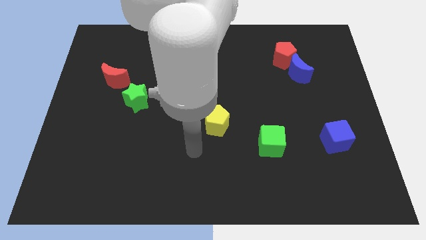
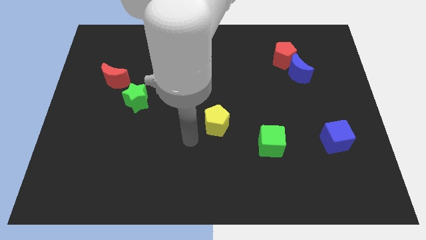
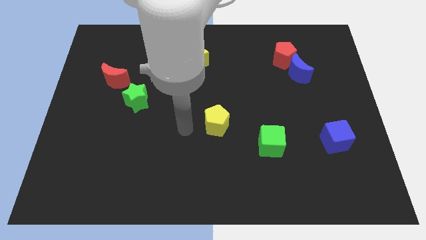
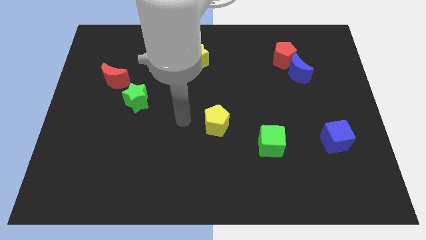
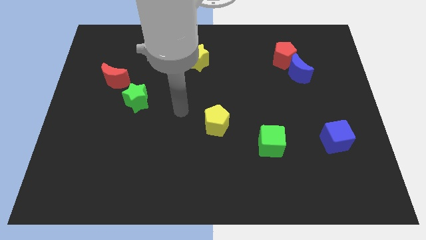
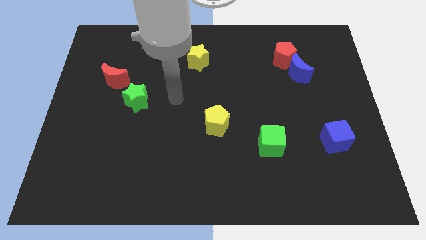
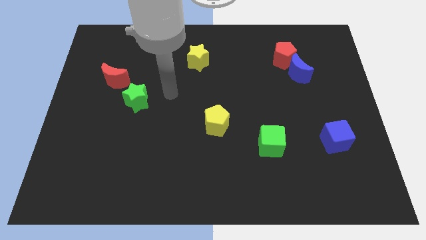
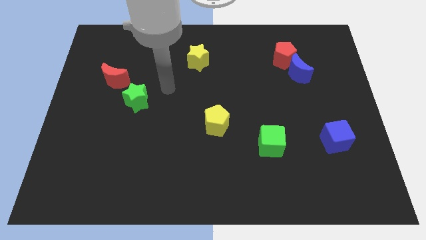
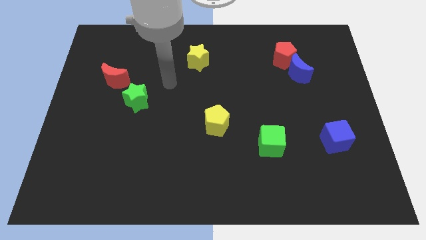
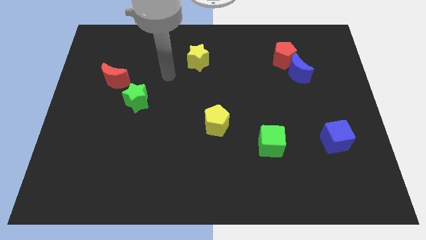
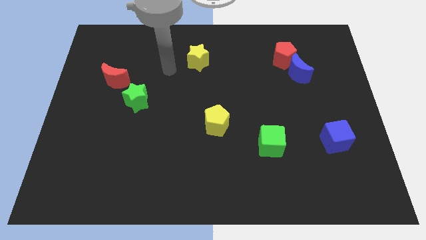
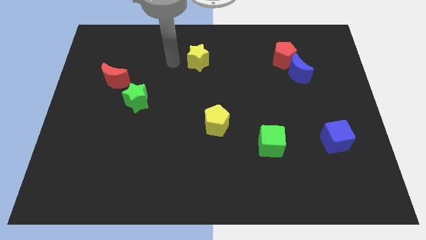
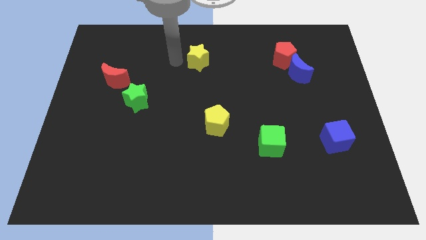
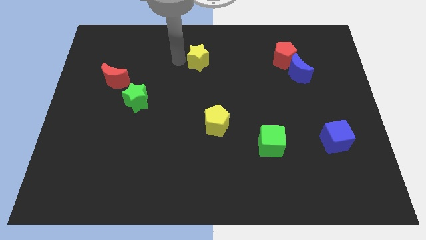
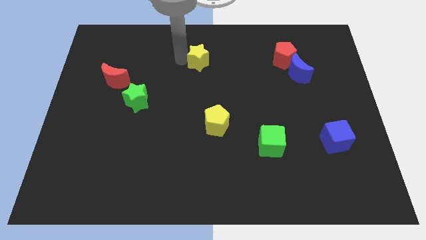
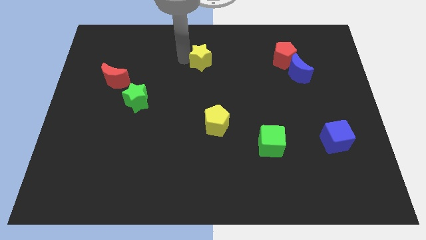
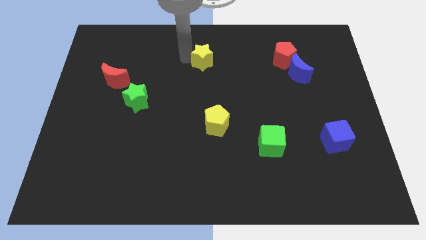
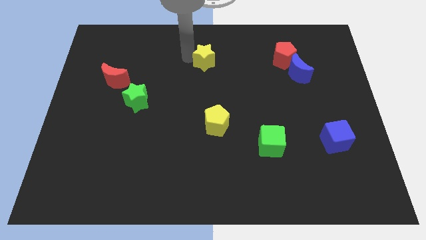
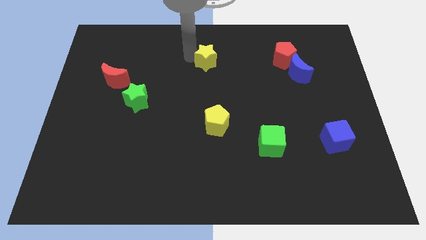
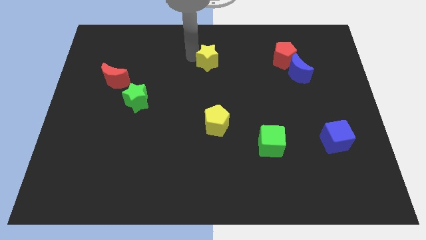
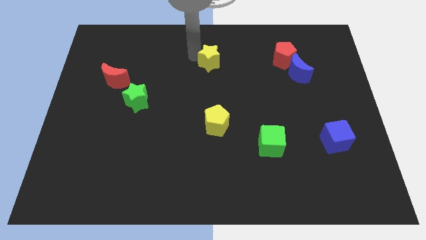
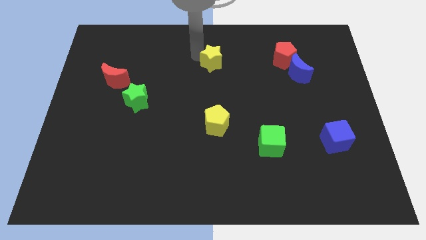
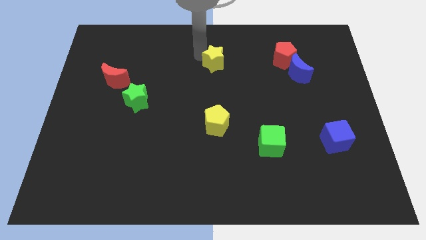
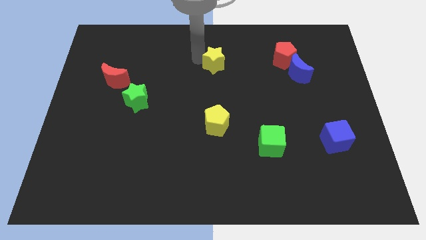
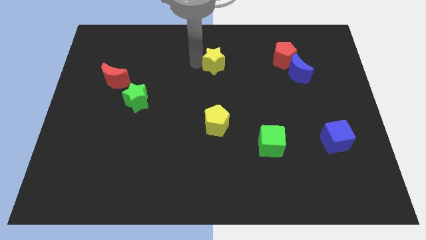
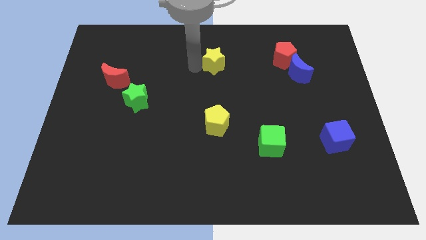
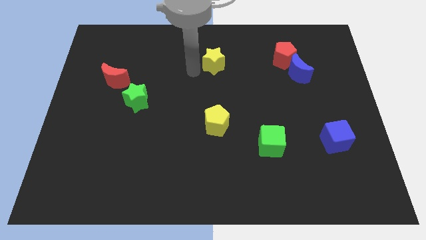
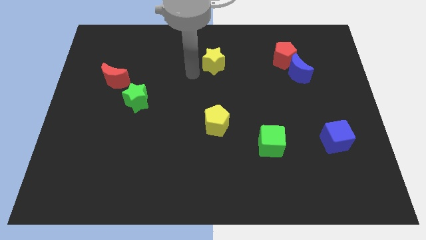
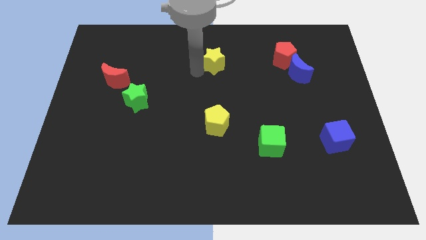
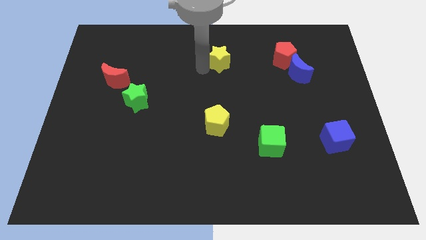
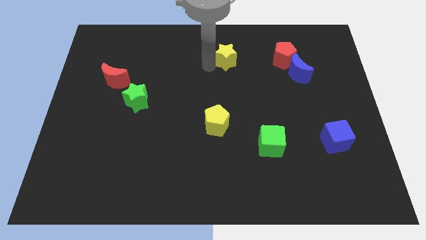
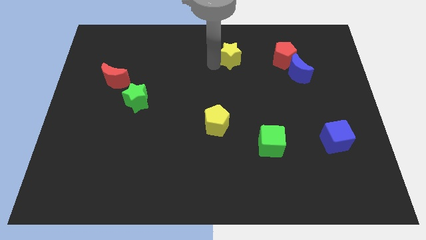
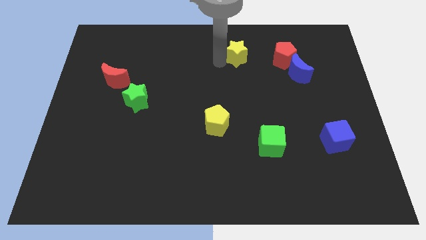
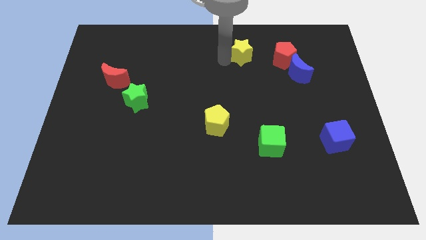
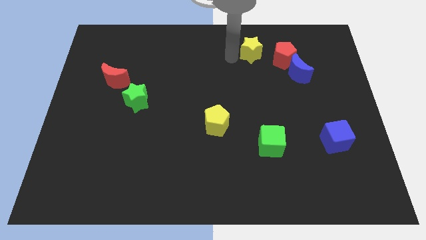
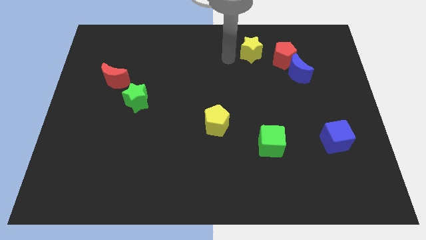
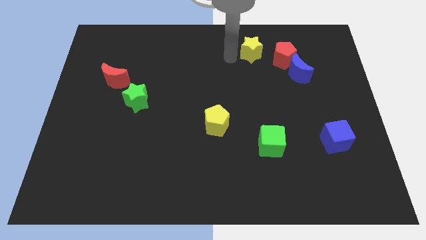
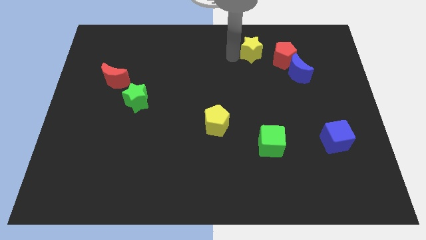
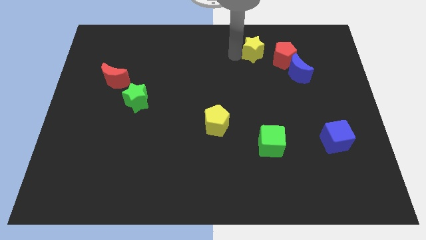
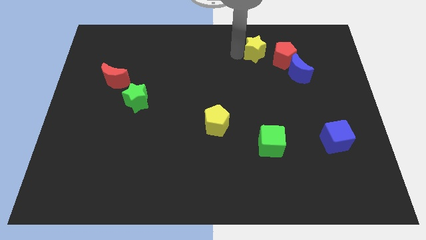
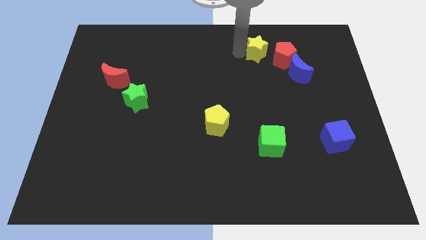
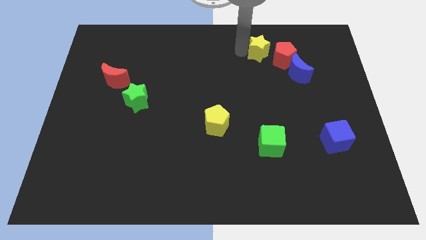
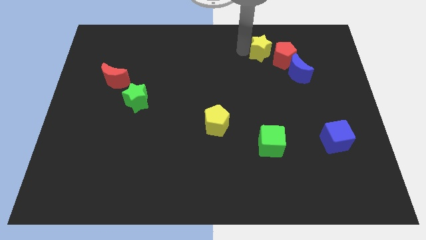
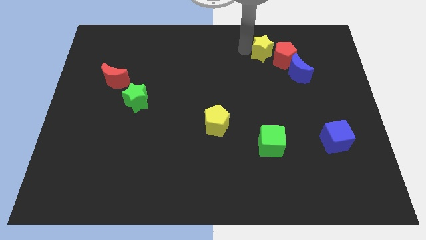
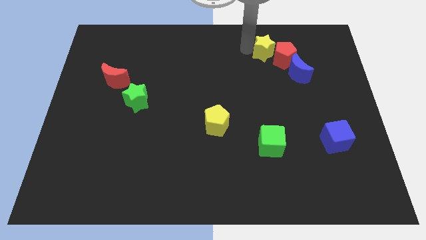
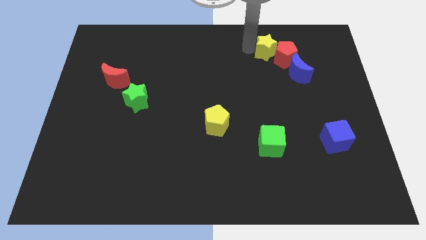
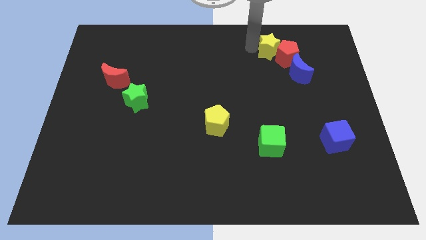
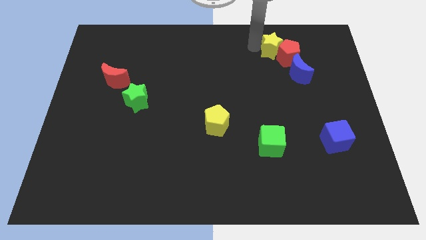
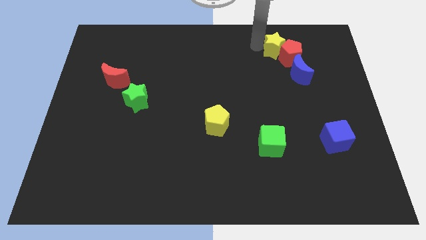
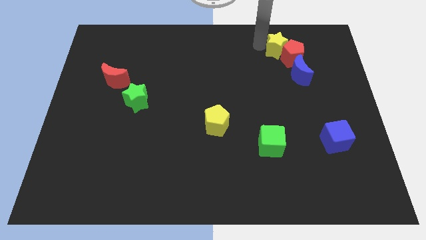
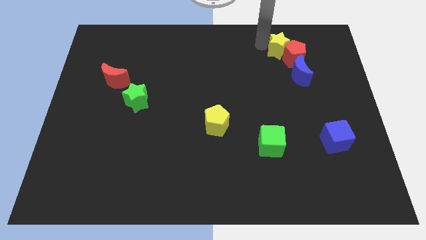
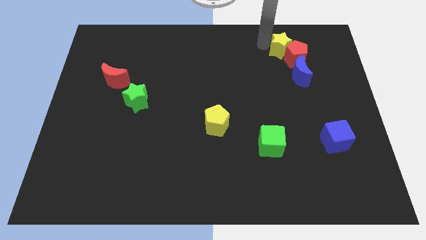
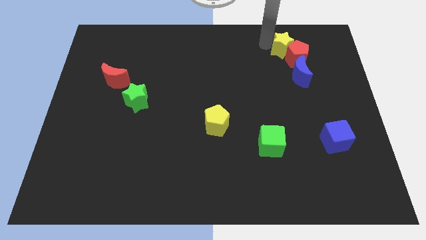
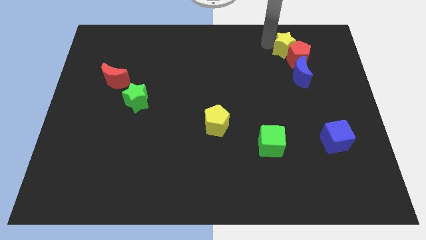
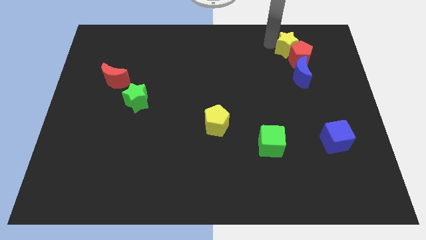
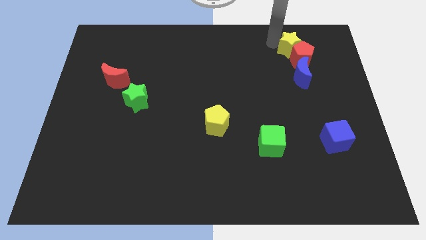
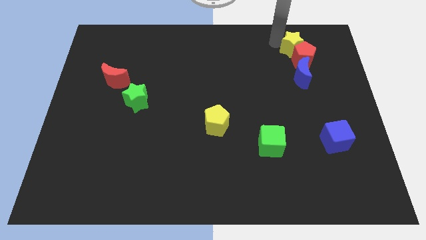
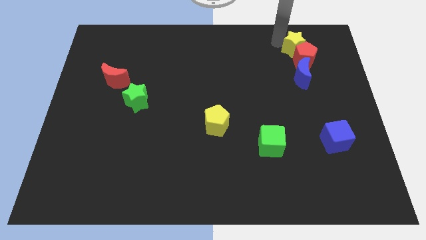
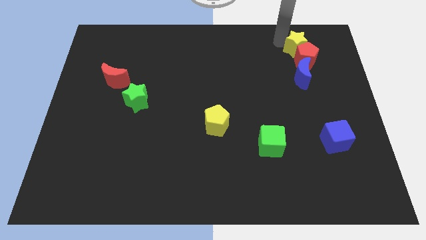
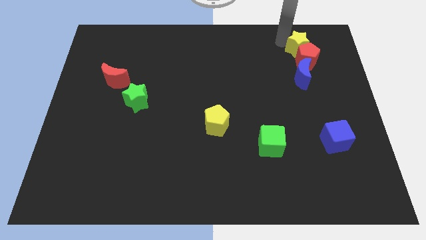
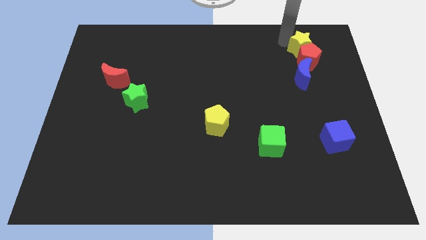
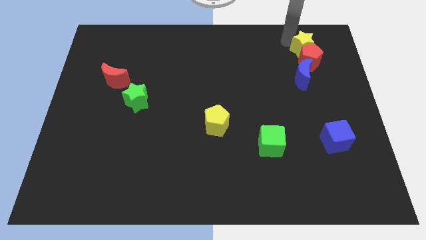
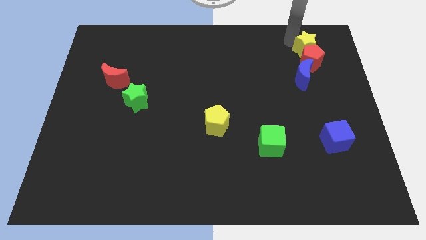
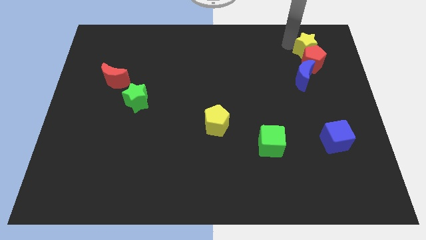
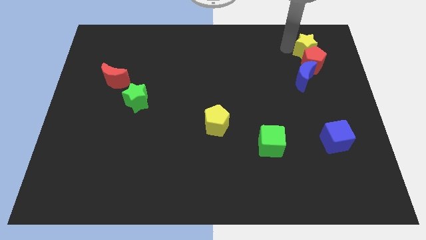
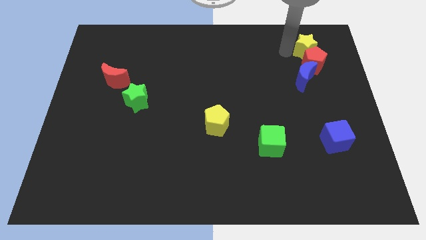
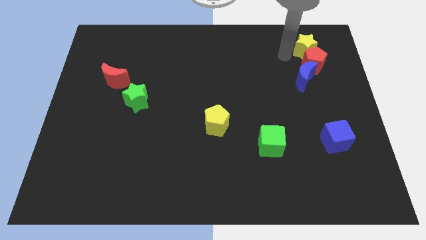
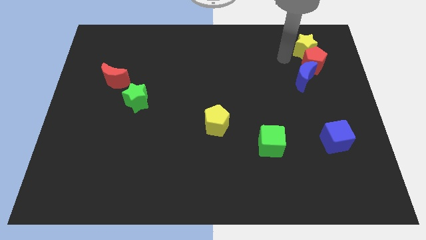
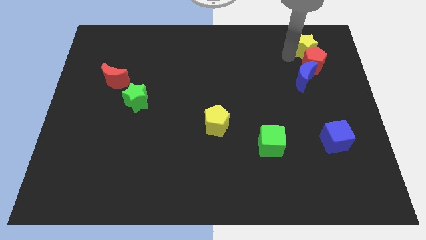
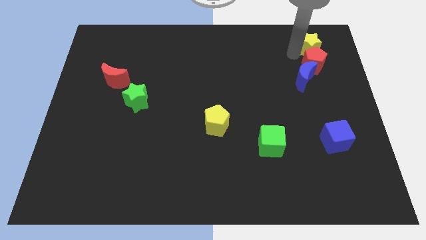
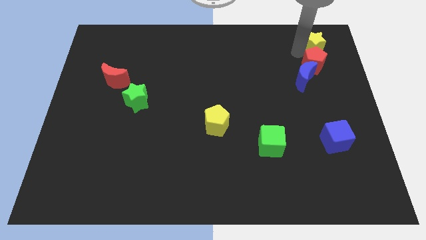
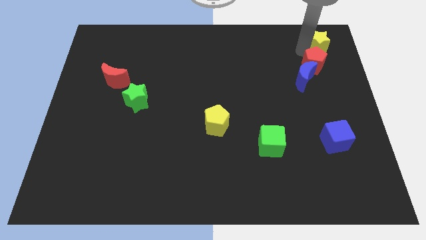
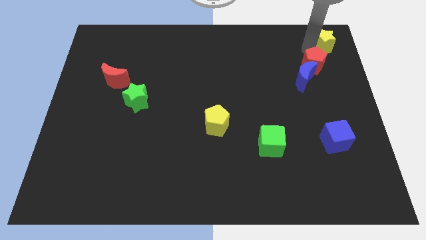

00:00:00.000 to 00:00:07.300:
move the yellow star to the upper right corner
